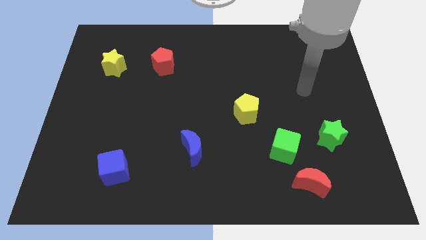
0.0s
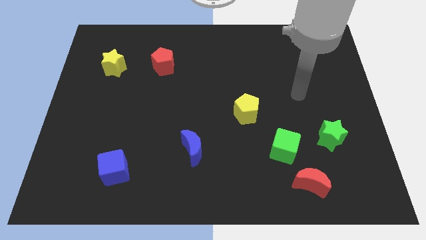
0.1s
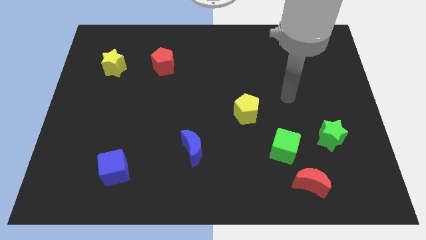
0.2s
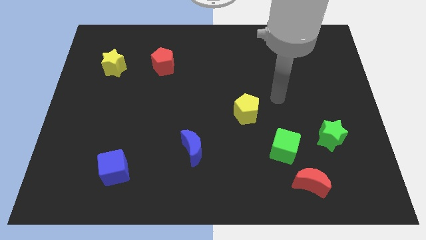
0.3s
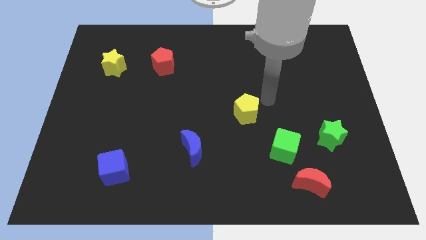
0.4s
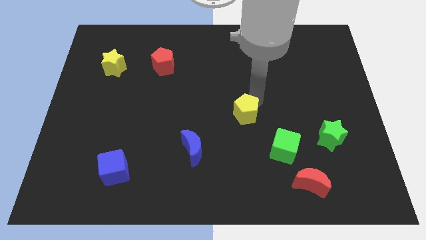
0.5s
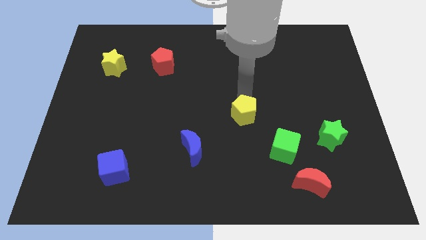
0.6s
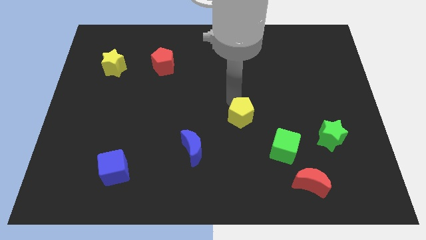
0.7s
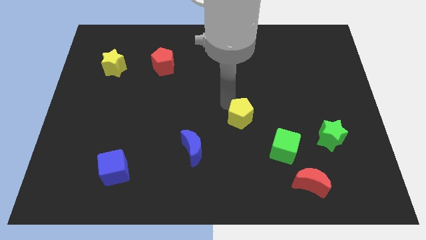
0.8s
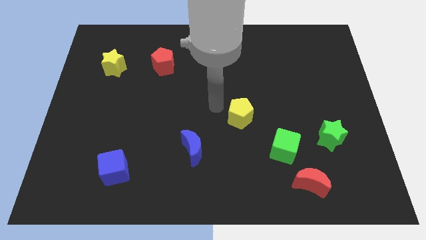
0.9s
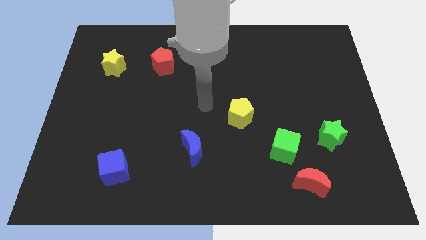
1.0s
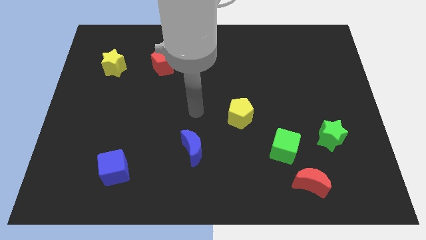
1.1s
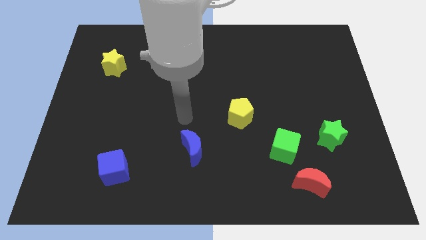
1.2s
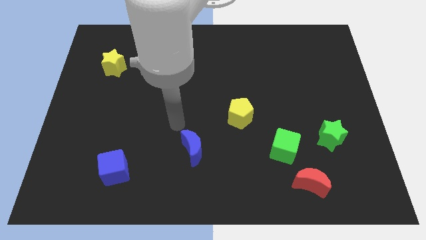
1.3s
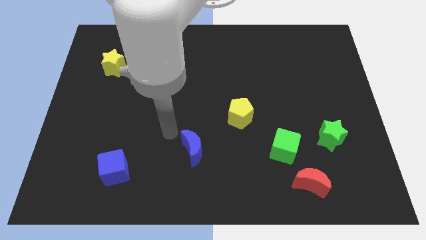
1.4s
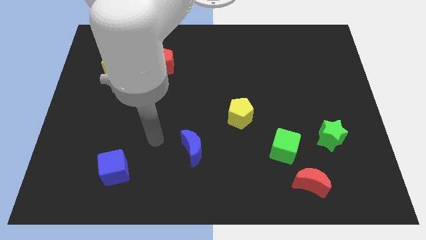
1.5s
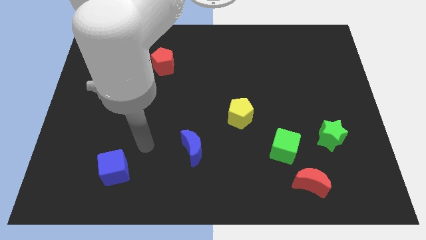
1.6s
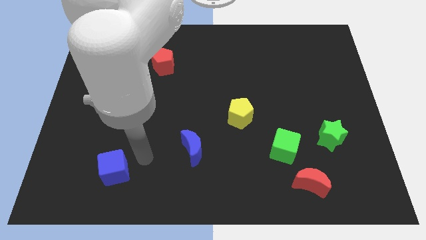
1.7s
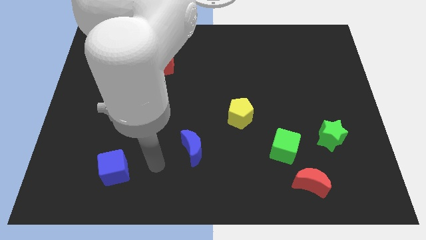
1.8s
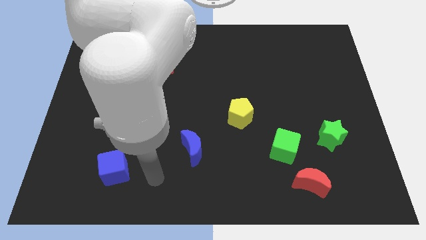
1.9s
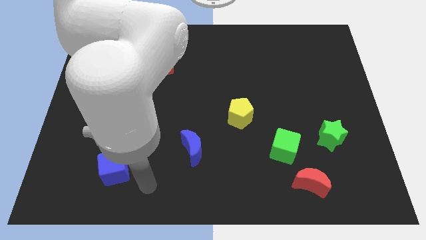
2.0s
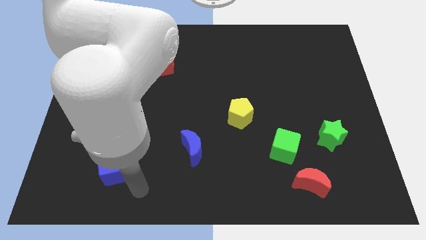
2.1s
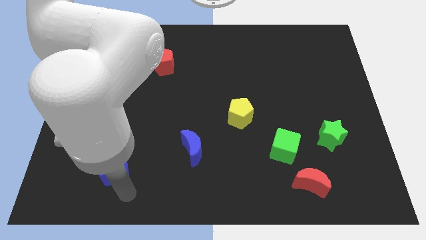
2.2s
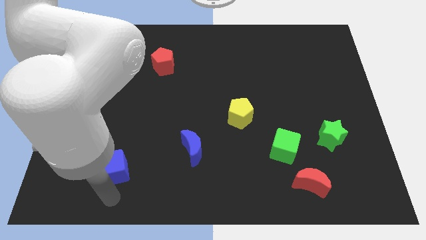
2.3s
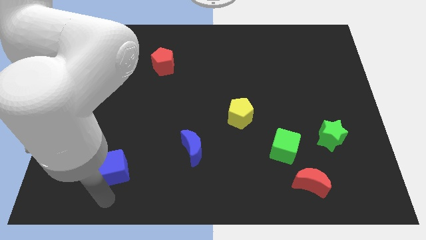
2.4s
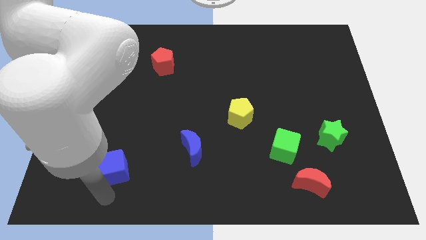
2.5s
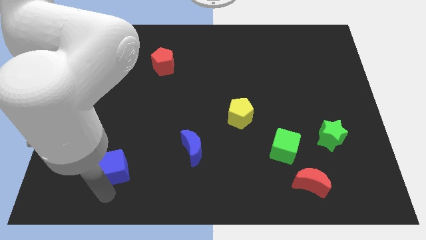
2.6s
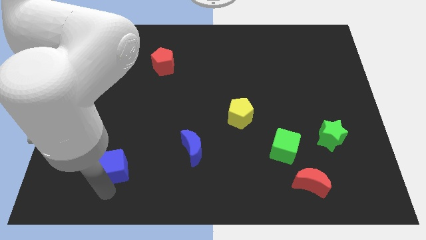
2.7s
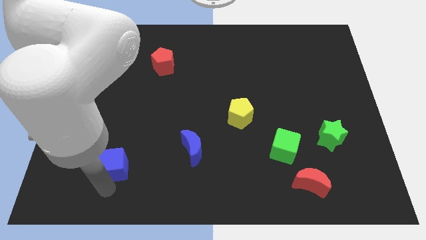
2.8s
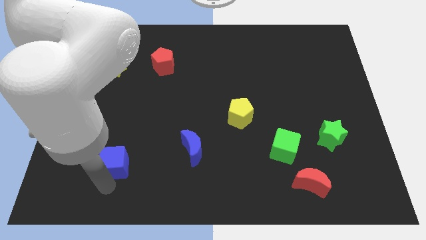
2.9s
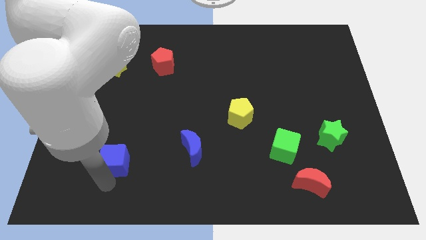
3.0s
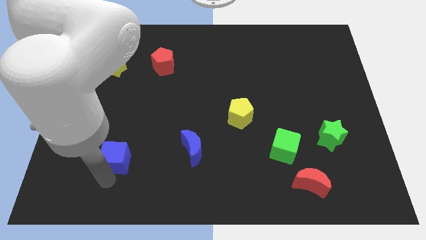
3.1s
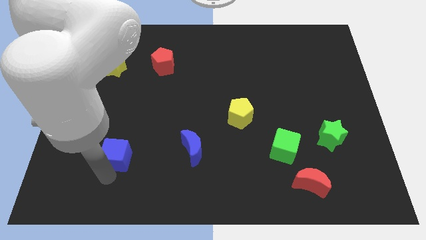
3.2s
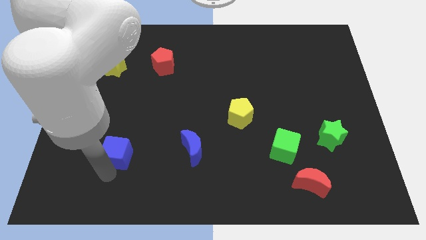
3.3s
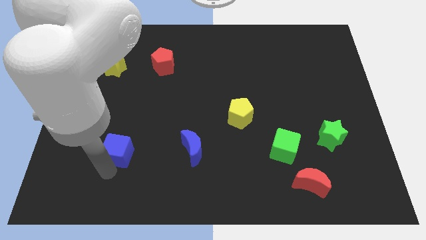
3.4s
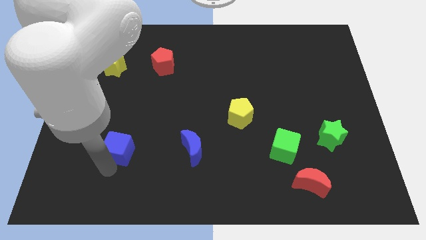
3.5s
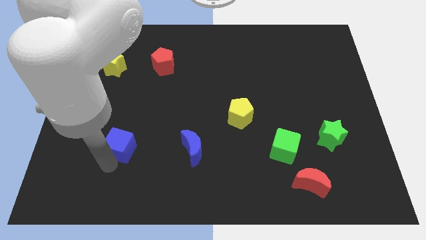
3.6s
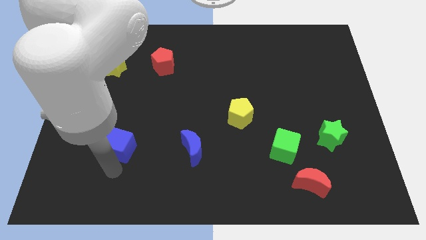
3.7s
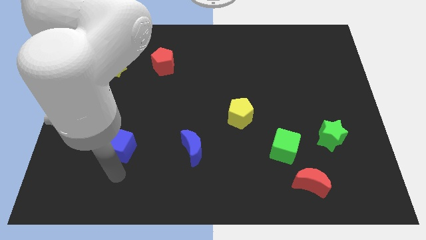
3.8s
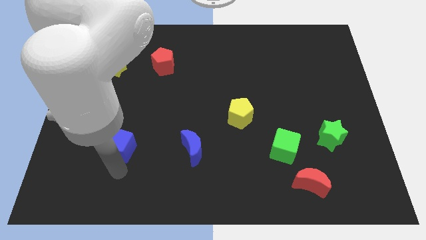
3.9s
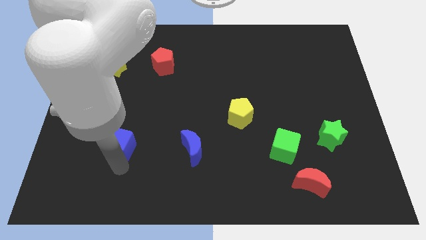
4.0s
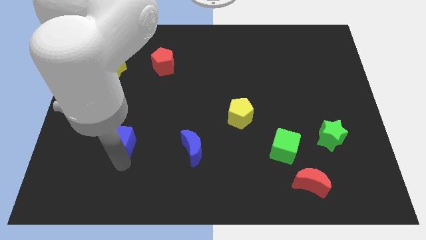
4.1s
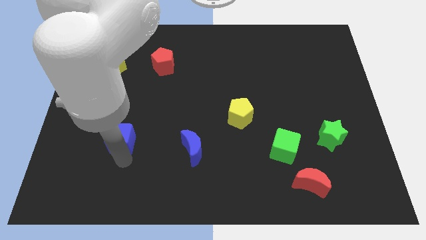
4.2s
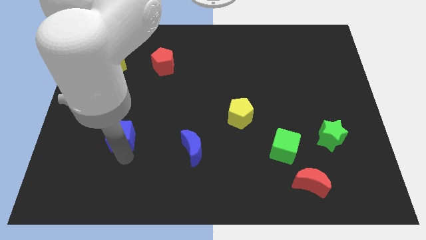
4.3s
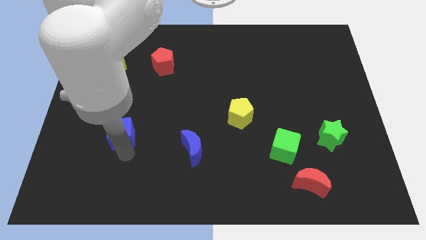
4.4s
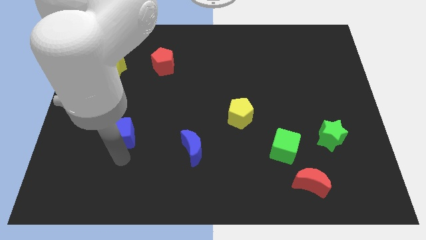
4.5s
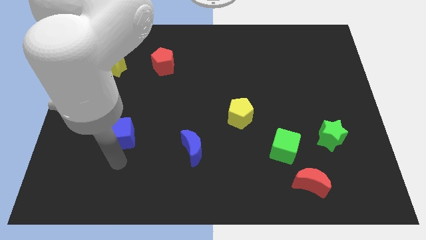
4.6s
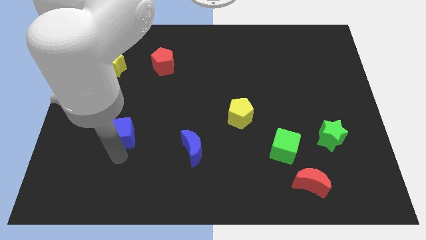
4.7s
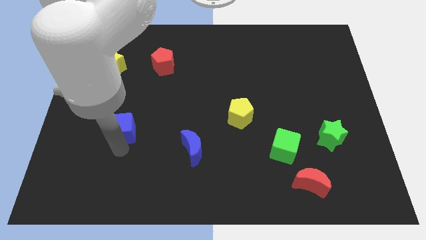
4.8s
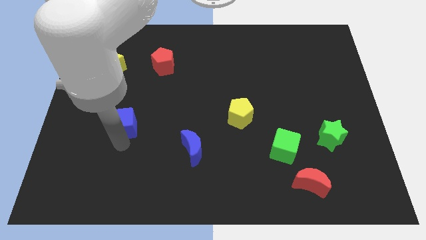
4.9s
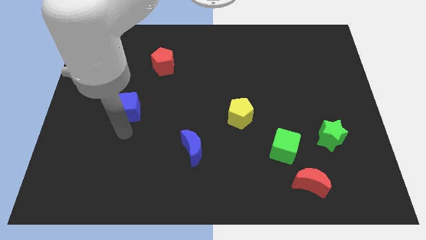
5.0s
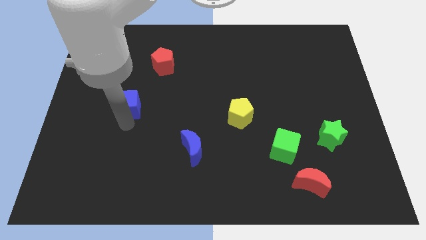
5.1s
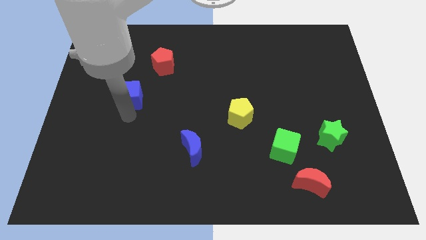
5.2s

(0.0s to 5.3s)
push the blue cube diagonally down and to the right of the yellow star

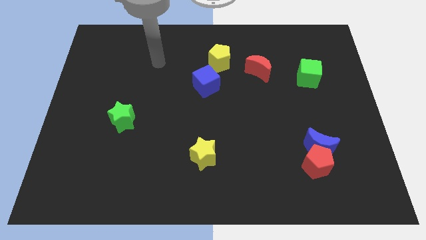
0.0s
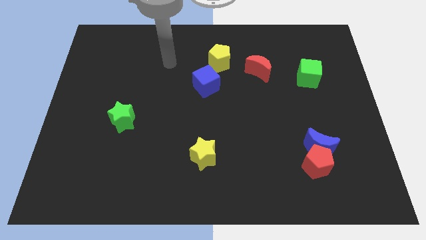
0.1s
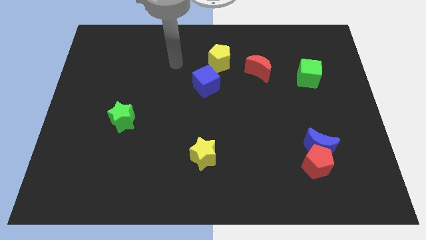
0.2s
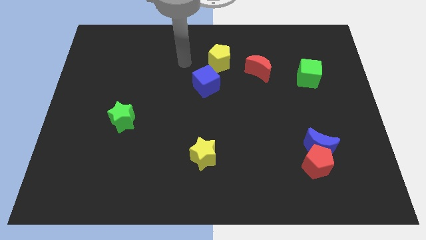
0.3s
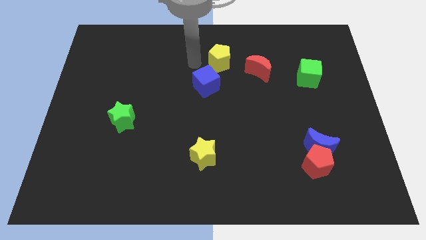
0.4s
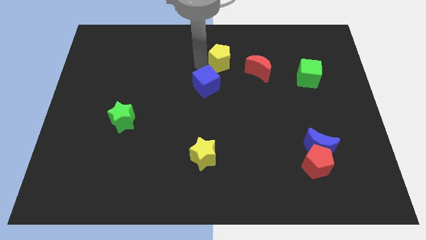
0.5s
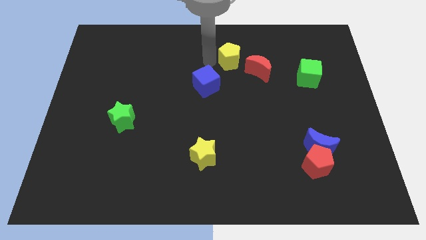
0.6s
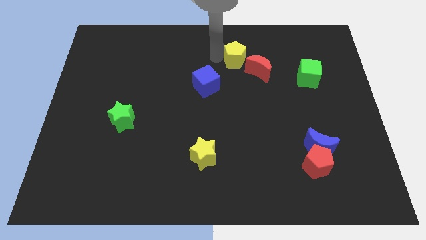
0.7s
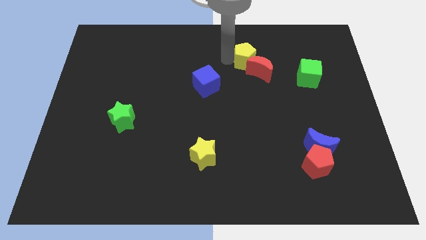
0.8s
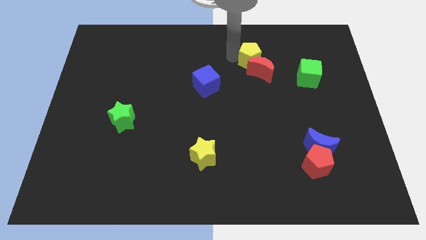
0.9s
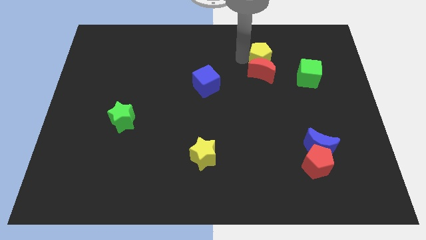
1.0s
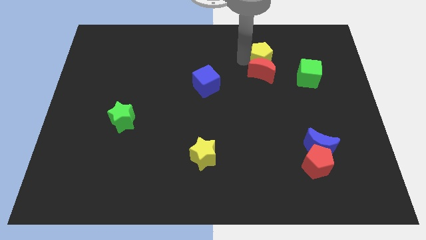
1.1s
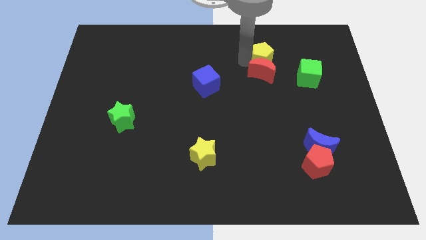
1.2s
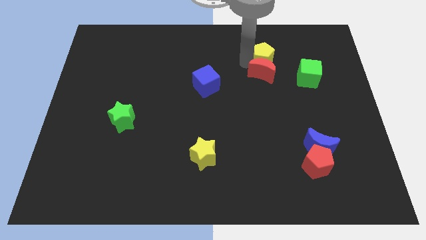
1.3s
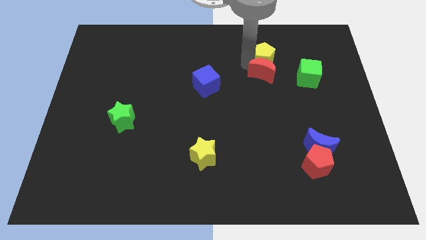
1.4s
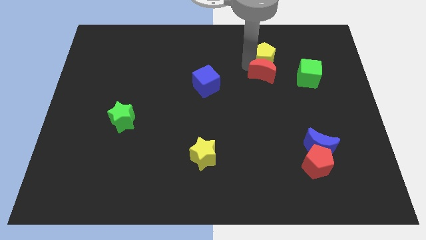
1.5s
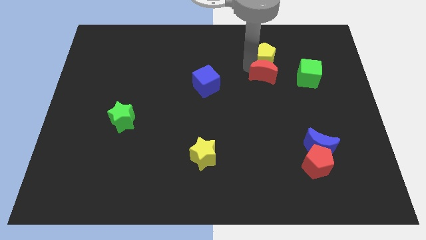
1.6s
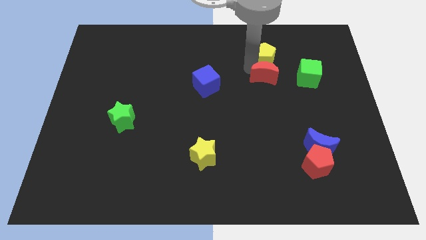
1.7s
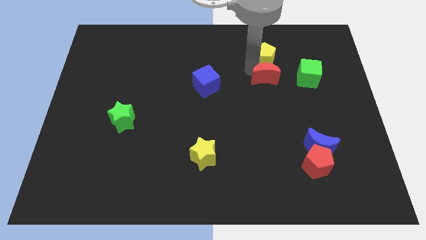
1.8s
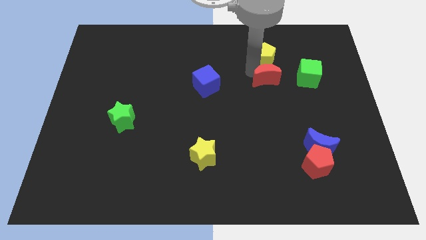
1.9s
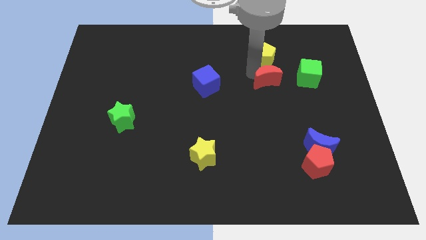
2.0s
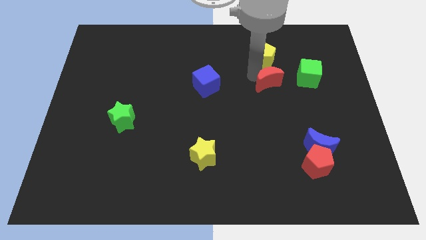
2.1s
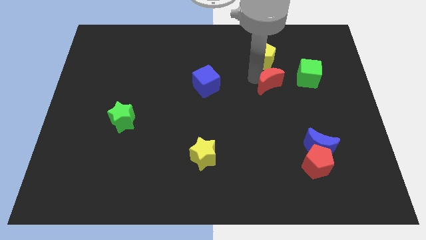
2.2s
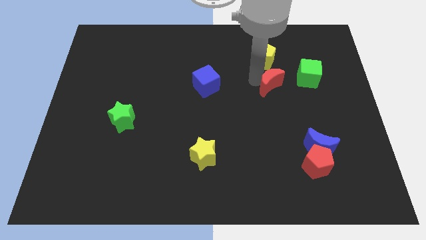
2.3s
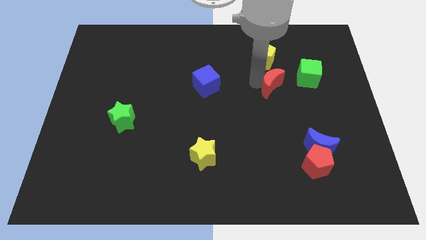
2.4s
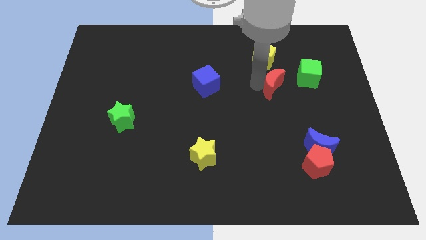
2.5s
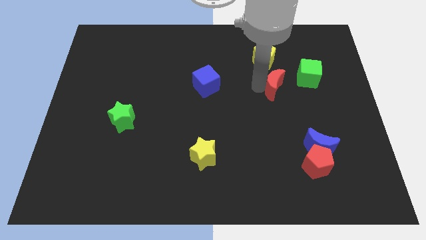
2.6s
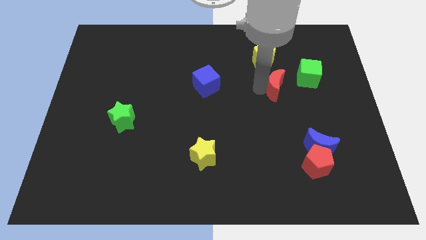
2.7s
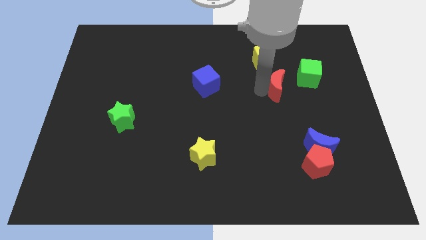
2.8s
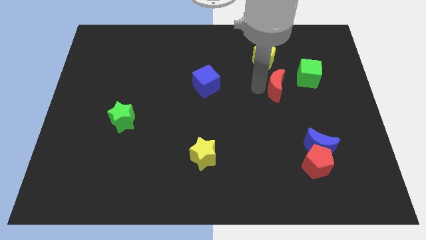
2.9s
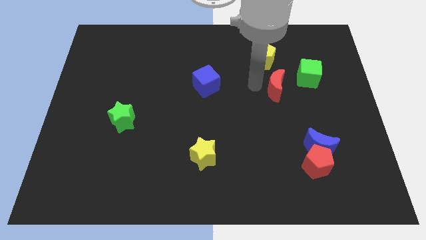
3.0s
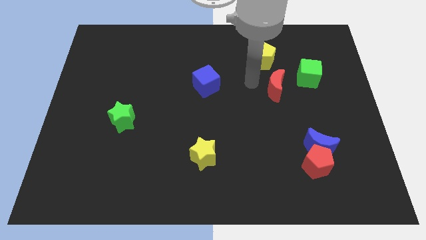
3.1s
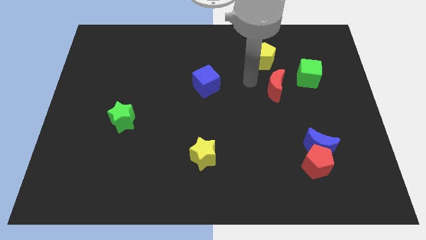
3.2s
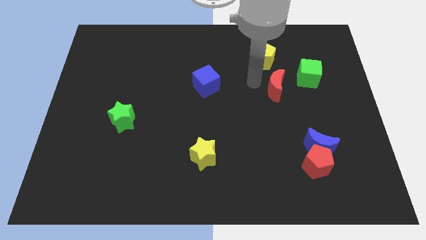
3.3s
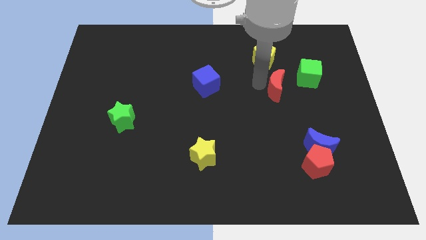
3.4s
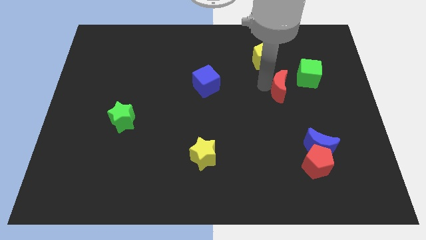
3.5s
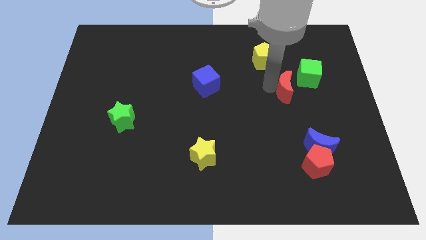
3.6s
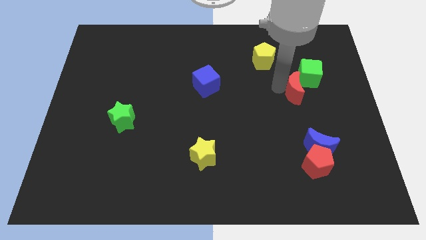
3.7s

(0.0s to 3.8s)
push the red moon to the bottom of the green cube
